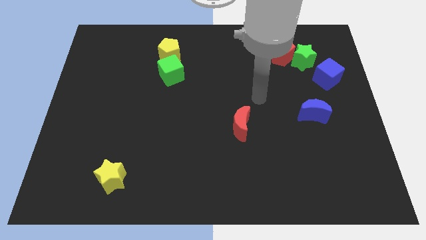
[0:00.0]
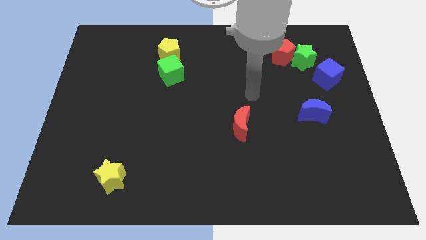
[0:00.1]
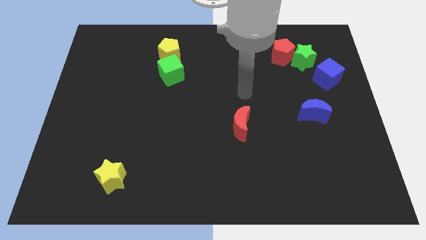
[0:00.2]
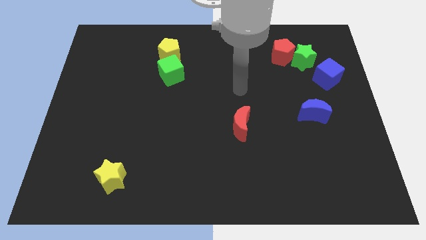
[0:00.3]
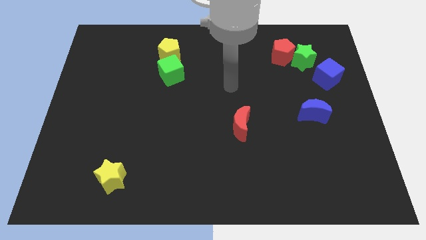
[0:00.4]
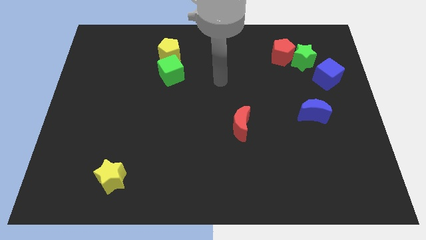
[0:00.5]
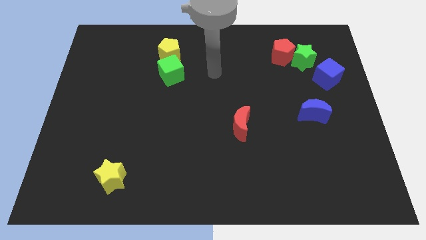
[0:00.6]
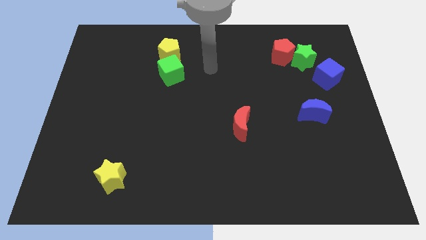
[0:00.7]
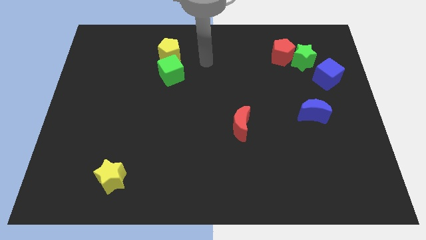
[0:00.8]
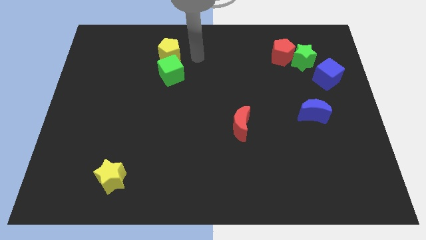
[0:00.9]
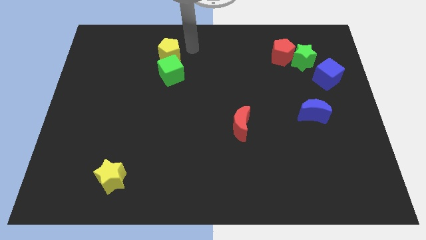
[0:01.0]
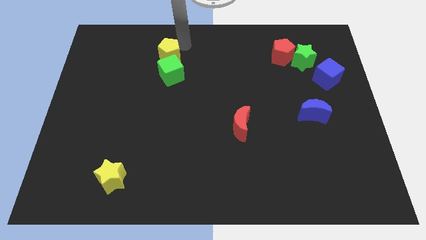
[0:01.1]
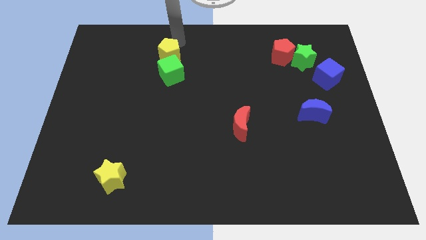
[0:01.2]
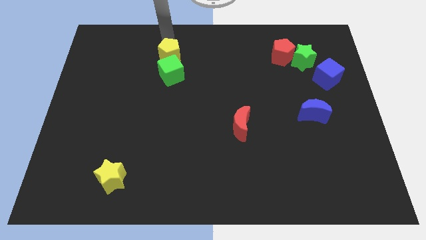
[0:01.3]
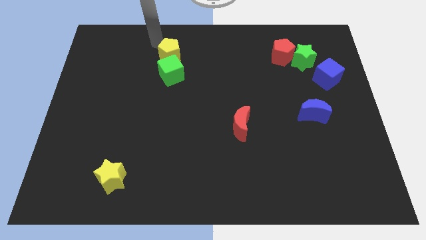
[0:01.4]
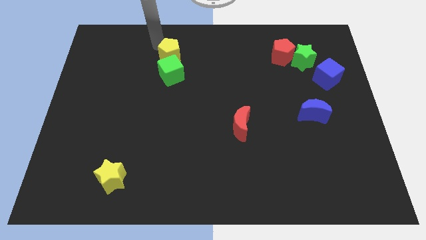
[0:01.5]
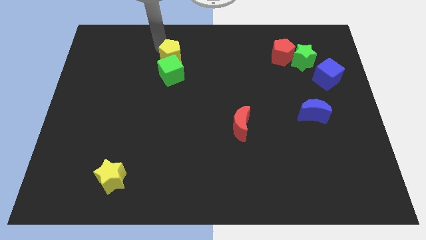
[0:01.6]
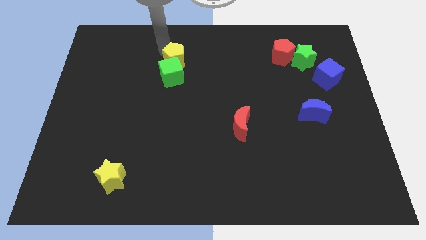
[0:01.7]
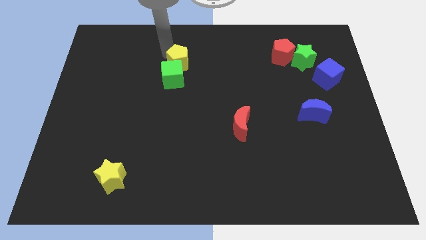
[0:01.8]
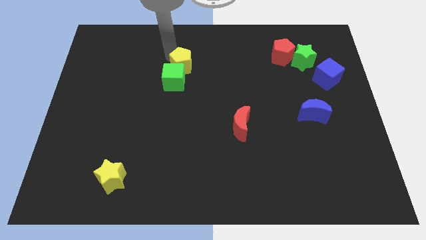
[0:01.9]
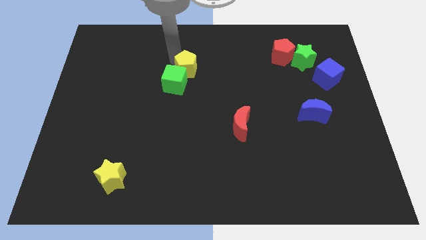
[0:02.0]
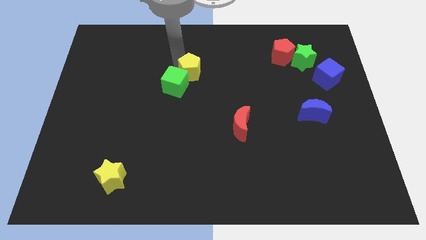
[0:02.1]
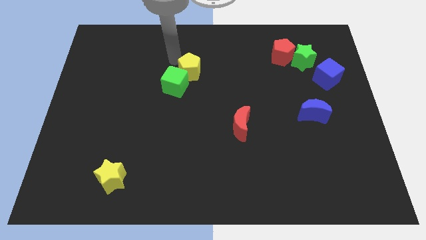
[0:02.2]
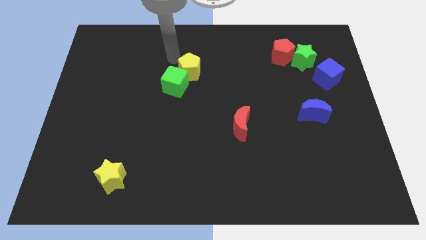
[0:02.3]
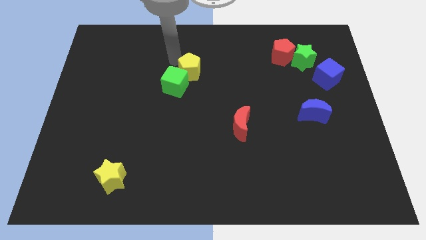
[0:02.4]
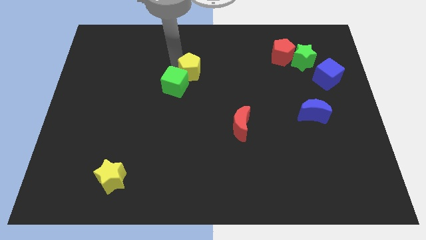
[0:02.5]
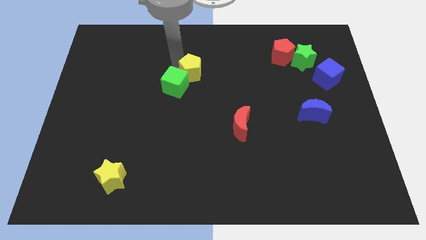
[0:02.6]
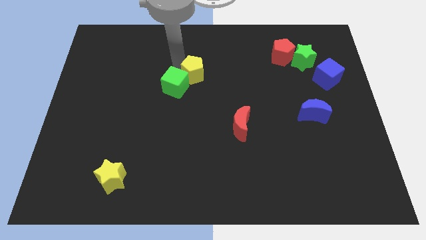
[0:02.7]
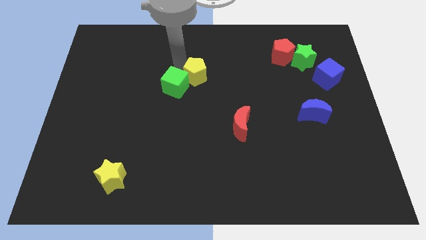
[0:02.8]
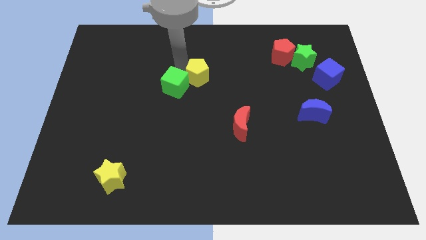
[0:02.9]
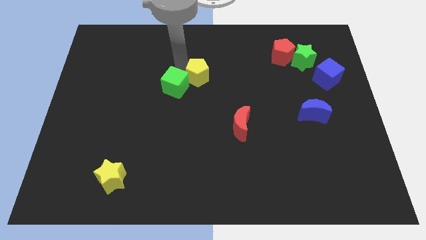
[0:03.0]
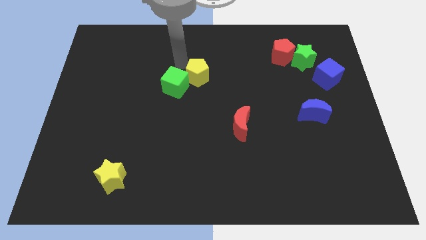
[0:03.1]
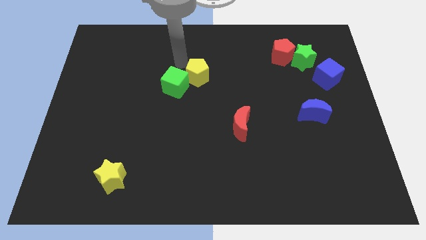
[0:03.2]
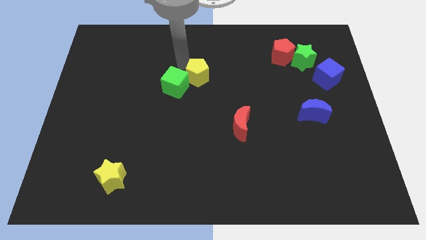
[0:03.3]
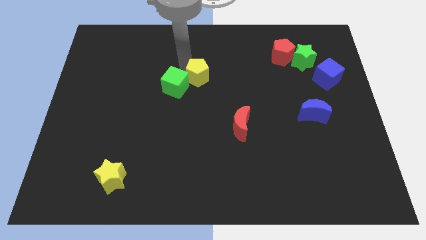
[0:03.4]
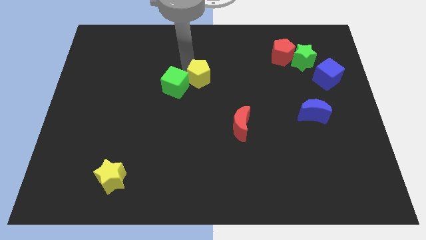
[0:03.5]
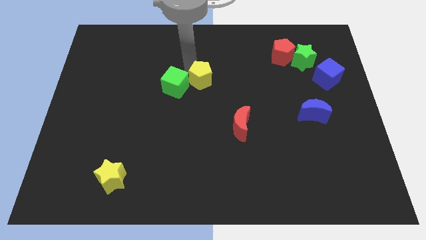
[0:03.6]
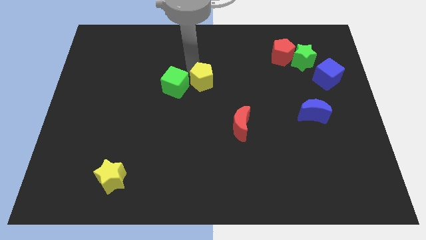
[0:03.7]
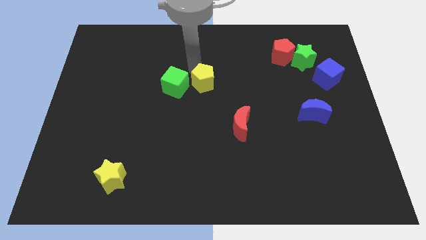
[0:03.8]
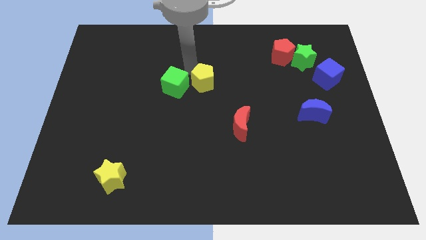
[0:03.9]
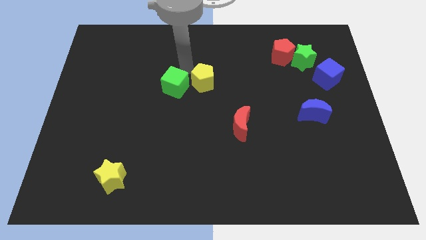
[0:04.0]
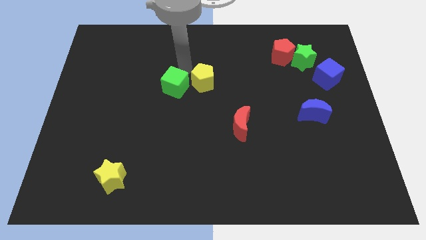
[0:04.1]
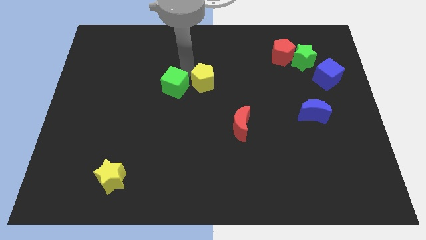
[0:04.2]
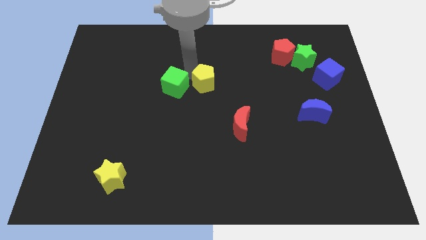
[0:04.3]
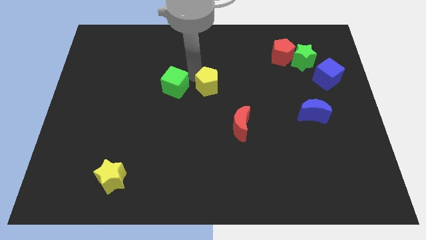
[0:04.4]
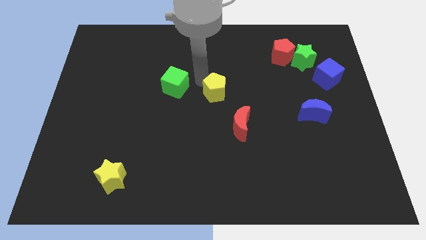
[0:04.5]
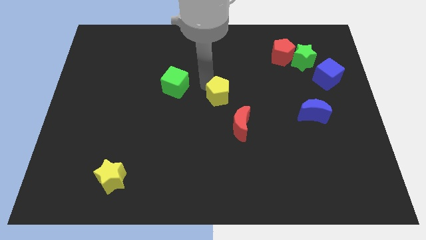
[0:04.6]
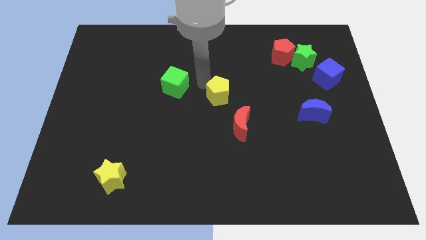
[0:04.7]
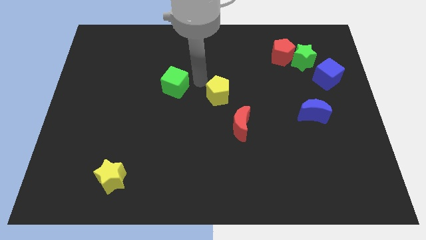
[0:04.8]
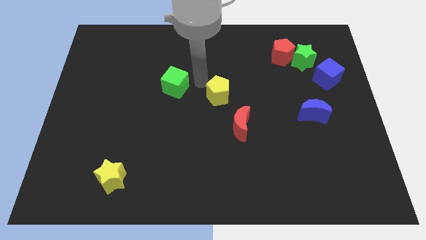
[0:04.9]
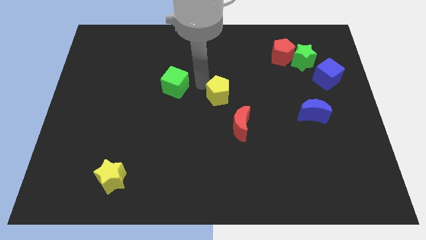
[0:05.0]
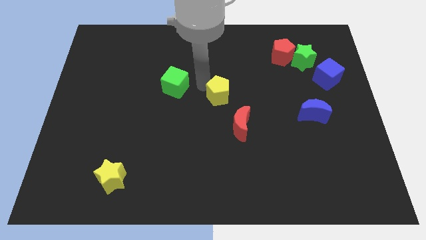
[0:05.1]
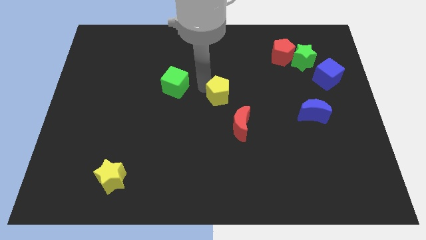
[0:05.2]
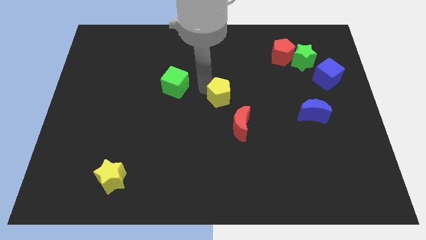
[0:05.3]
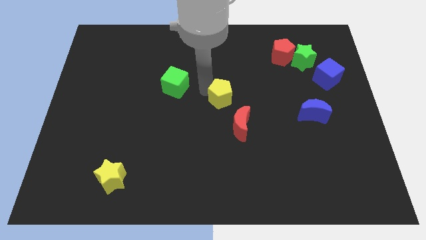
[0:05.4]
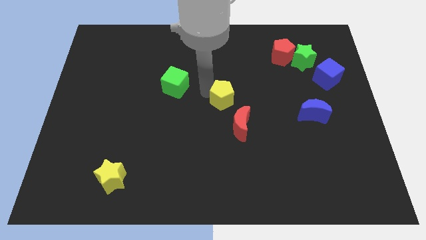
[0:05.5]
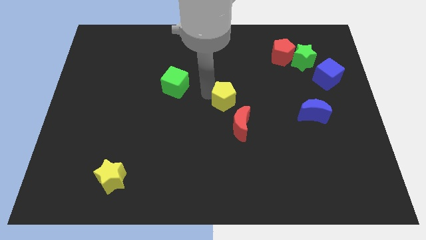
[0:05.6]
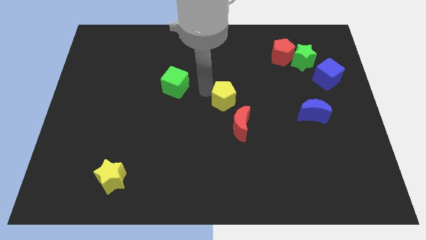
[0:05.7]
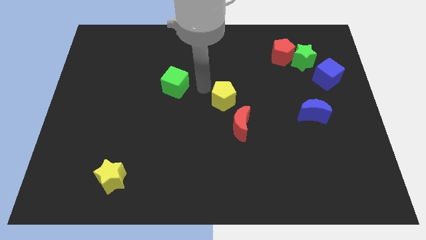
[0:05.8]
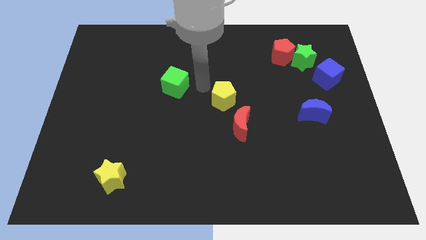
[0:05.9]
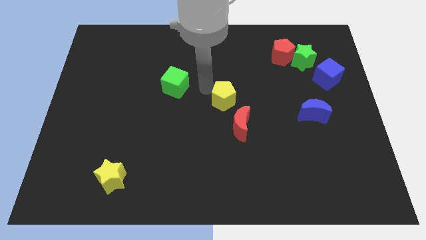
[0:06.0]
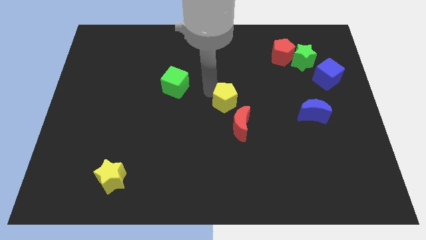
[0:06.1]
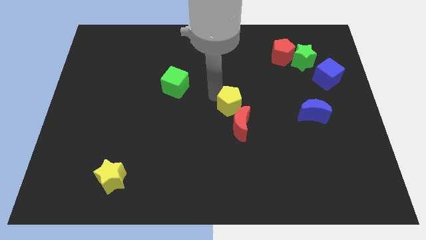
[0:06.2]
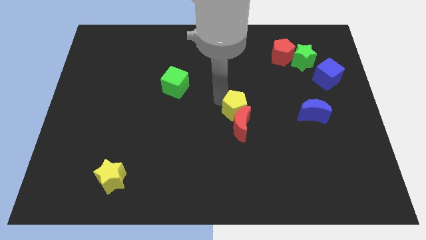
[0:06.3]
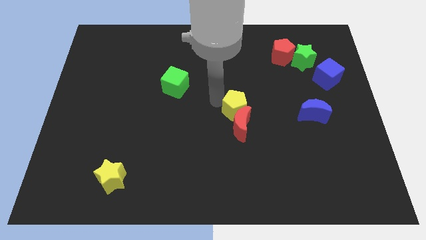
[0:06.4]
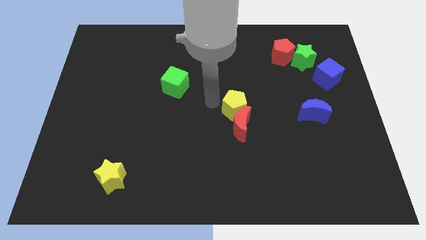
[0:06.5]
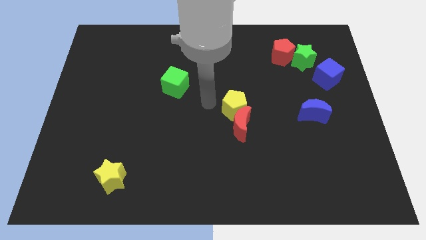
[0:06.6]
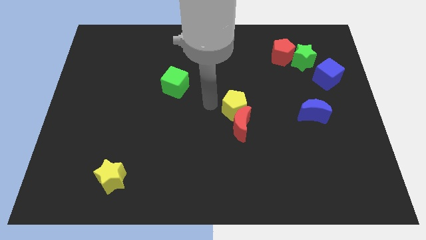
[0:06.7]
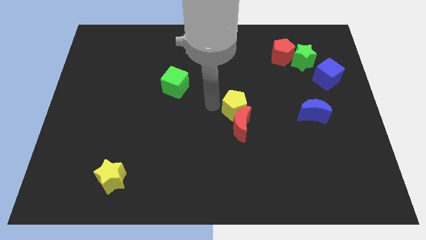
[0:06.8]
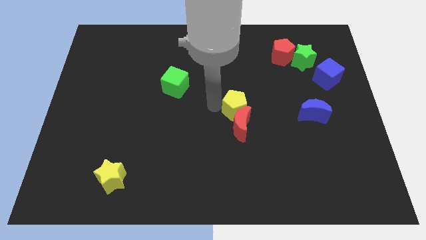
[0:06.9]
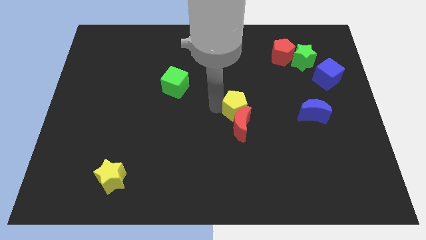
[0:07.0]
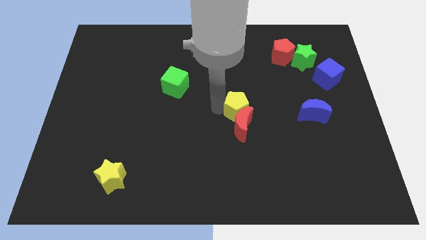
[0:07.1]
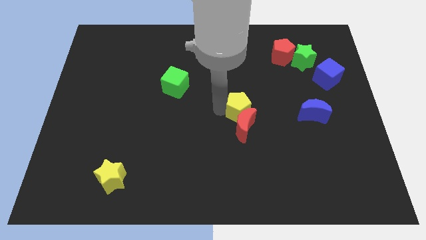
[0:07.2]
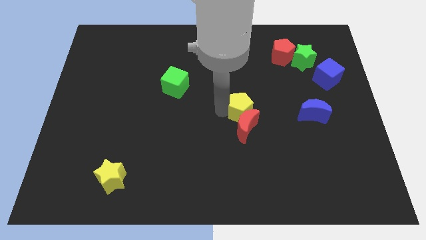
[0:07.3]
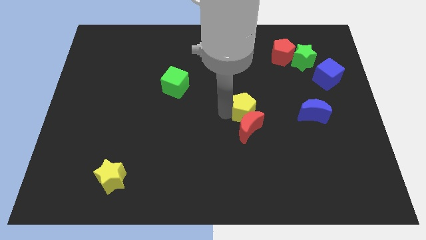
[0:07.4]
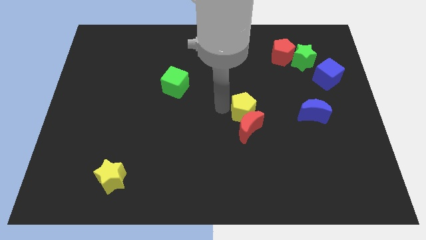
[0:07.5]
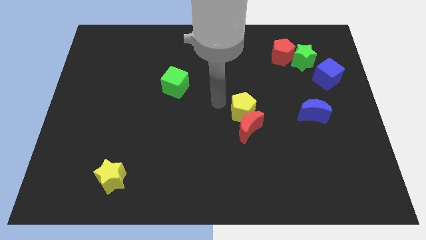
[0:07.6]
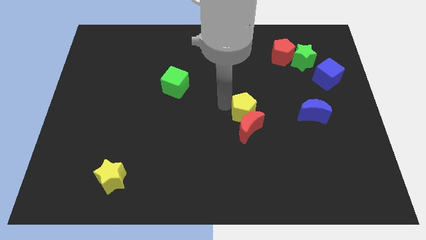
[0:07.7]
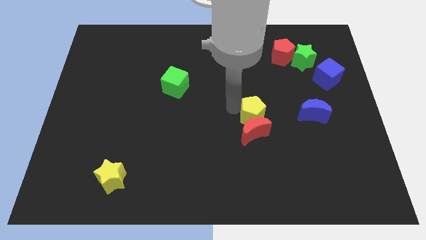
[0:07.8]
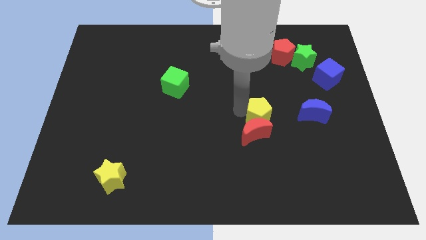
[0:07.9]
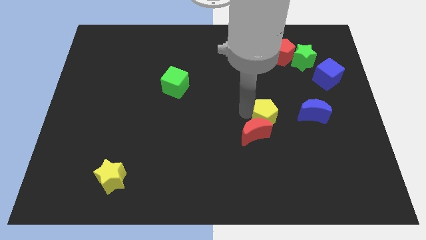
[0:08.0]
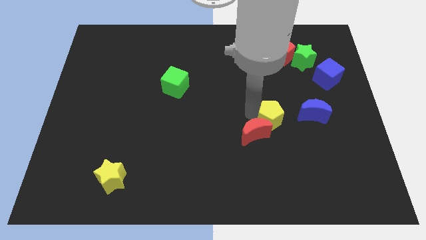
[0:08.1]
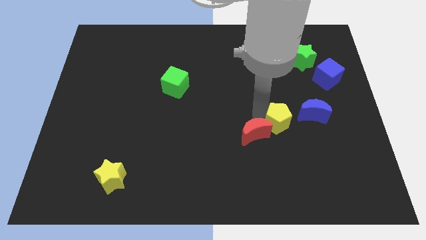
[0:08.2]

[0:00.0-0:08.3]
move the yellow pentagon to the bottom left of the blue moon
